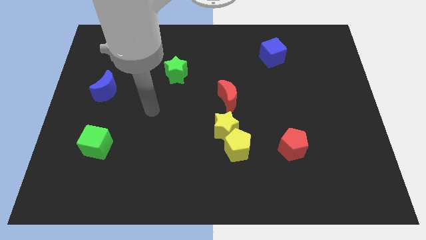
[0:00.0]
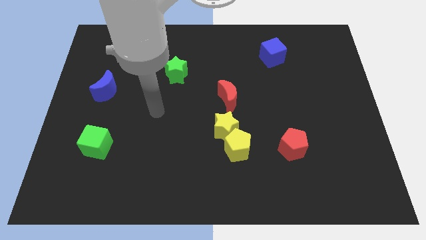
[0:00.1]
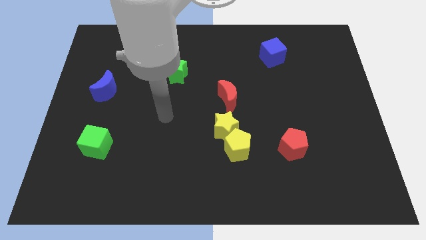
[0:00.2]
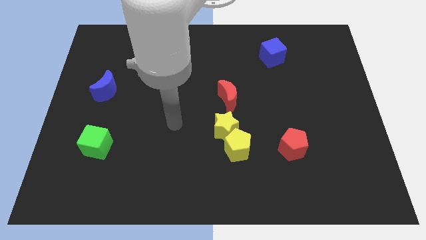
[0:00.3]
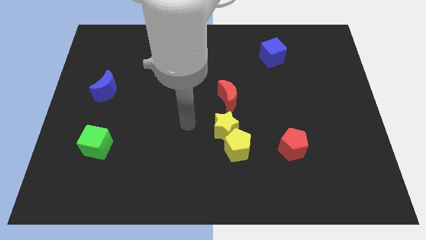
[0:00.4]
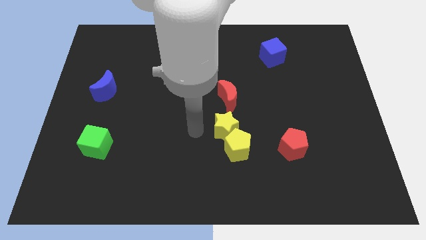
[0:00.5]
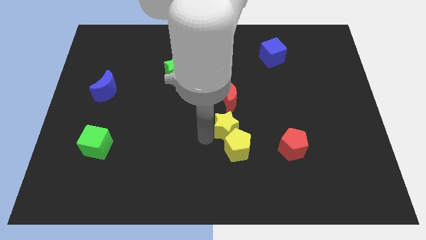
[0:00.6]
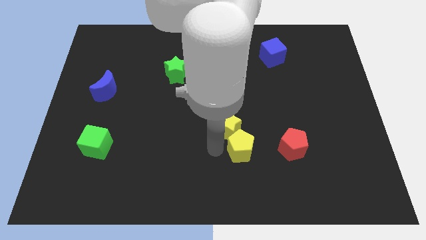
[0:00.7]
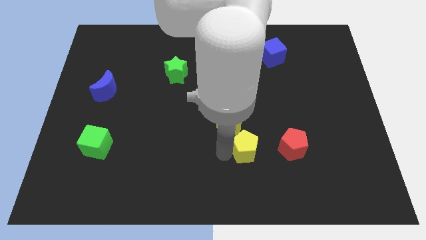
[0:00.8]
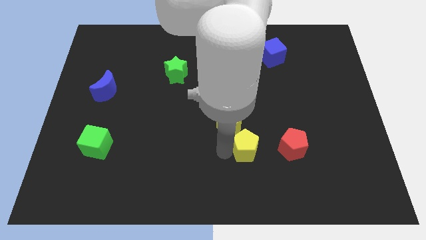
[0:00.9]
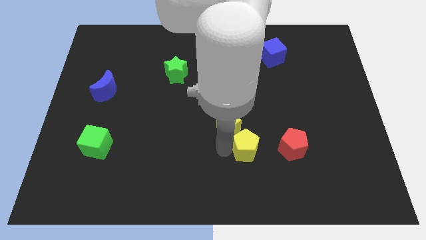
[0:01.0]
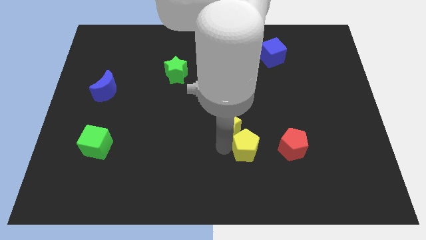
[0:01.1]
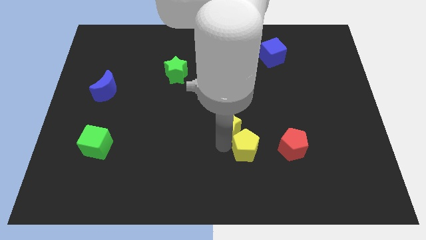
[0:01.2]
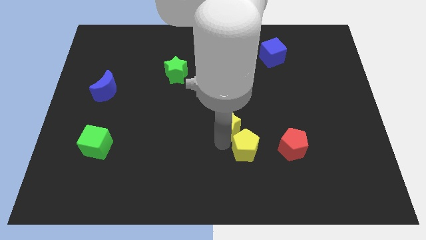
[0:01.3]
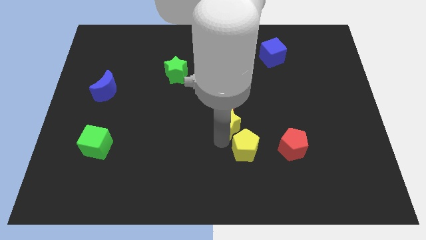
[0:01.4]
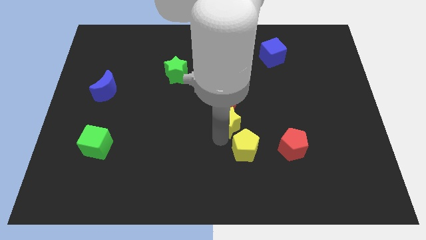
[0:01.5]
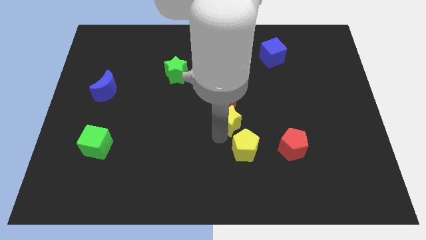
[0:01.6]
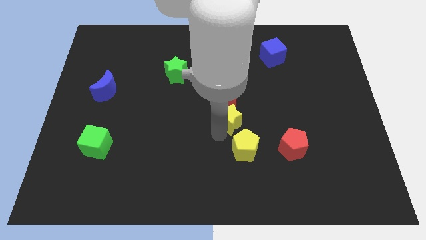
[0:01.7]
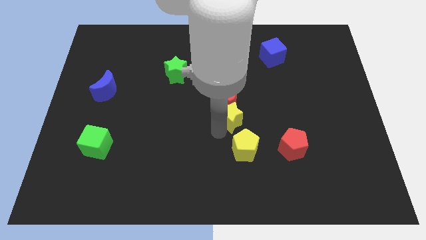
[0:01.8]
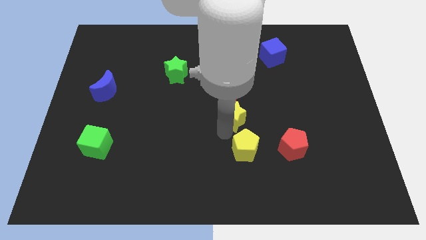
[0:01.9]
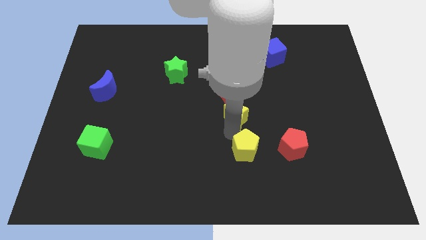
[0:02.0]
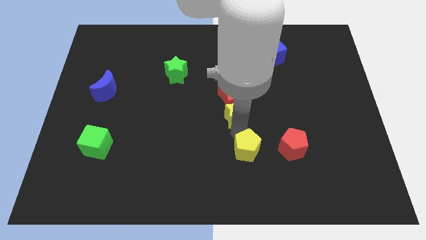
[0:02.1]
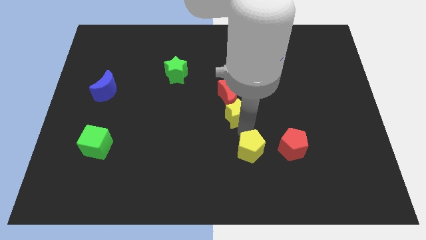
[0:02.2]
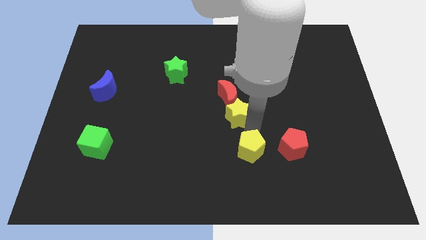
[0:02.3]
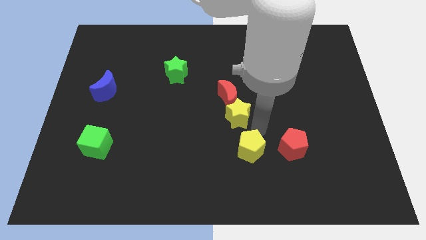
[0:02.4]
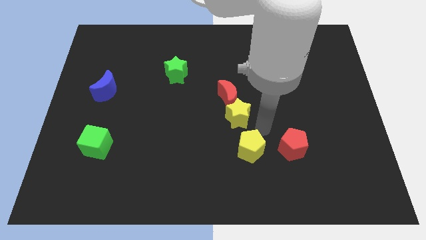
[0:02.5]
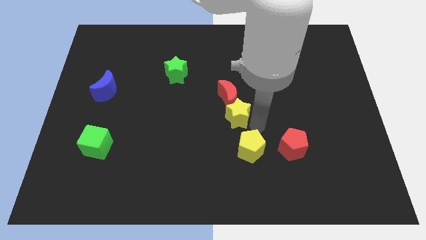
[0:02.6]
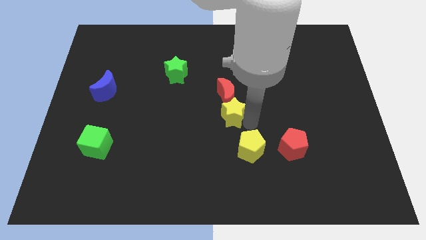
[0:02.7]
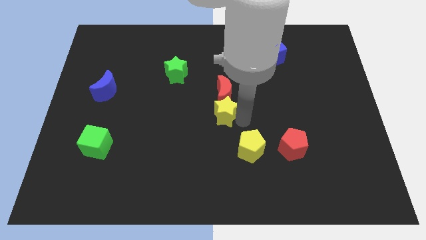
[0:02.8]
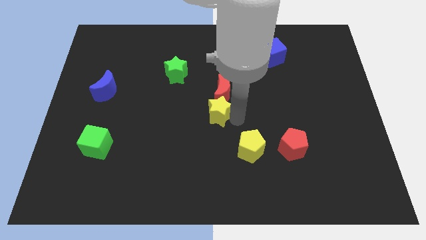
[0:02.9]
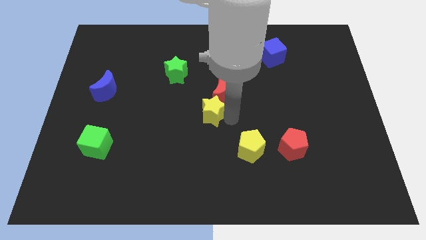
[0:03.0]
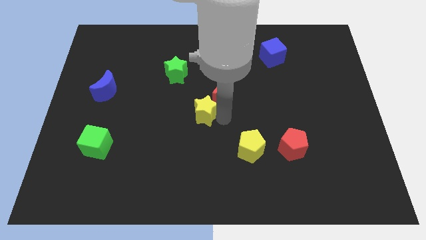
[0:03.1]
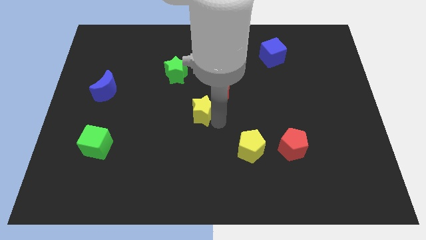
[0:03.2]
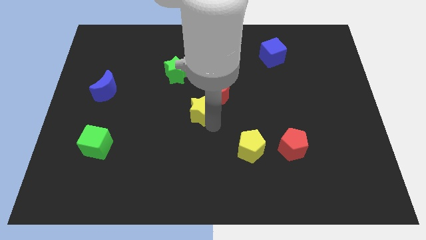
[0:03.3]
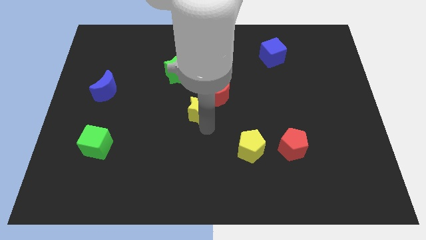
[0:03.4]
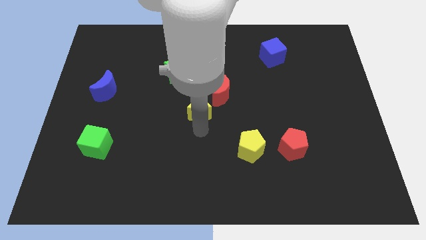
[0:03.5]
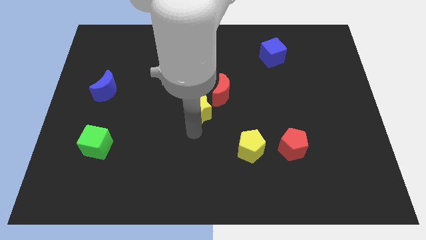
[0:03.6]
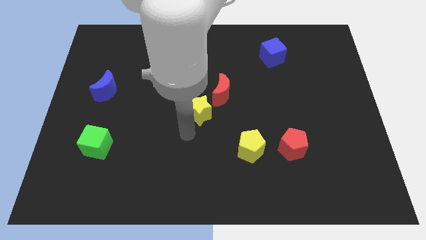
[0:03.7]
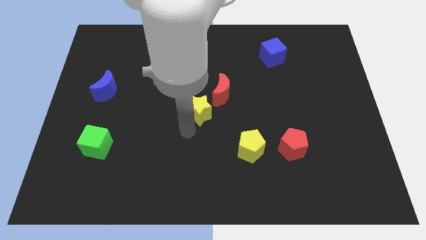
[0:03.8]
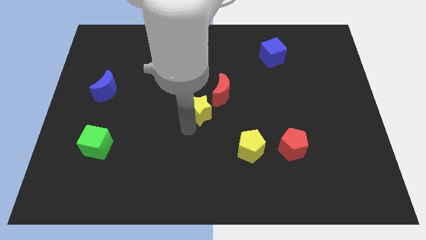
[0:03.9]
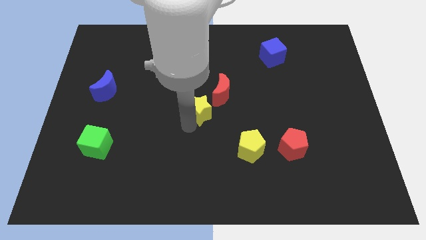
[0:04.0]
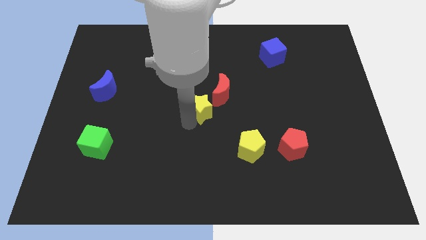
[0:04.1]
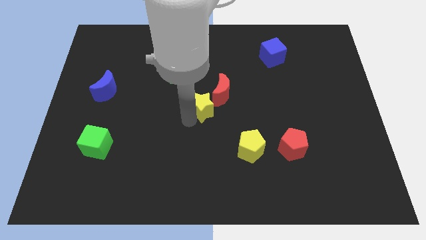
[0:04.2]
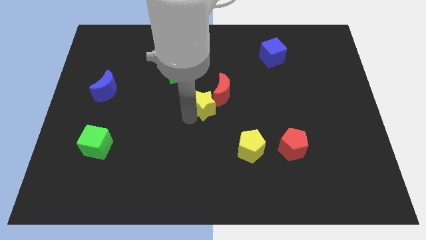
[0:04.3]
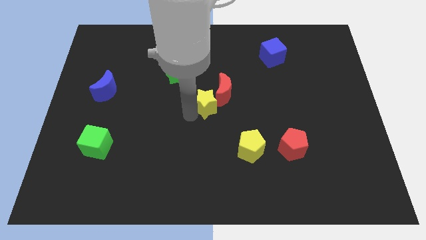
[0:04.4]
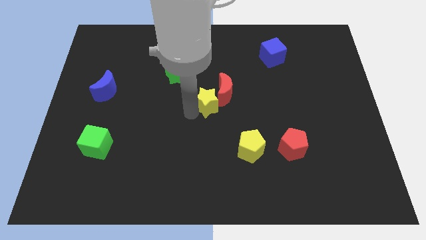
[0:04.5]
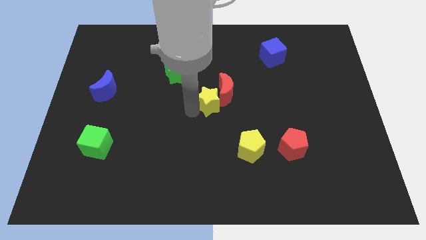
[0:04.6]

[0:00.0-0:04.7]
move the yellow star a bit up

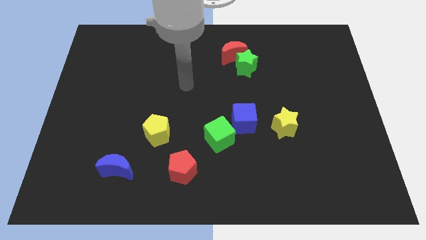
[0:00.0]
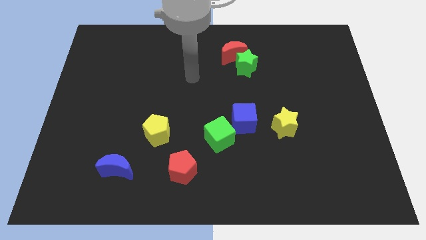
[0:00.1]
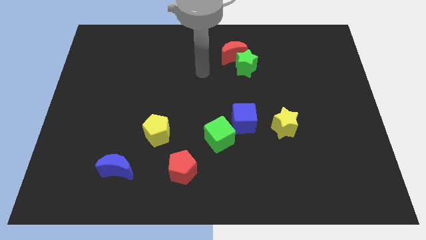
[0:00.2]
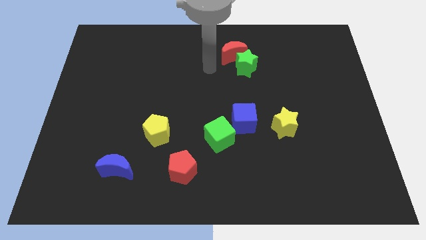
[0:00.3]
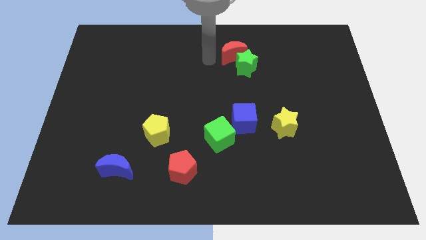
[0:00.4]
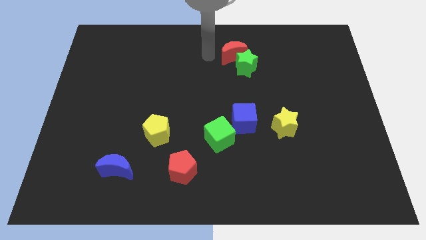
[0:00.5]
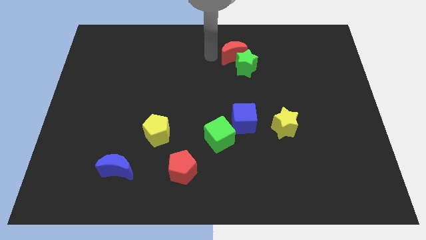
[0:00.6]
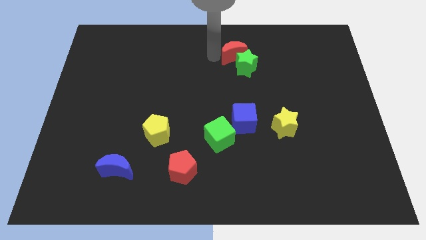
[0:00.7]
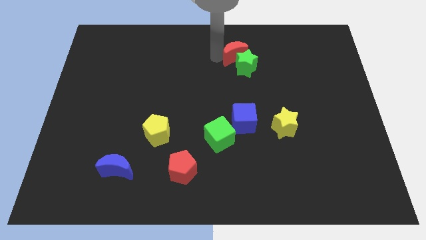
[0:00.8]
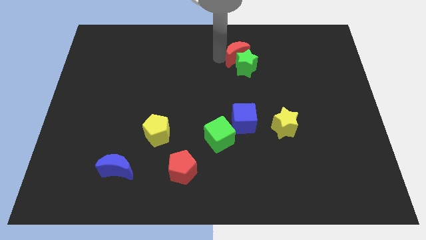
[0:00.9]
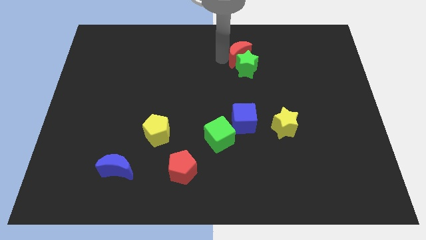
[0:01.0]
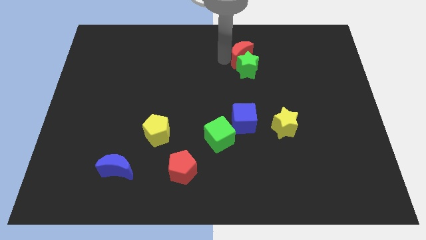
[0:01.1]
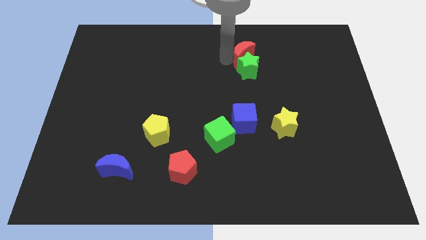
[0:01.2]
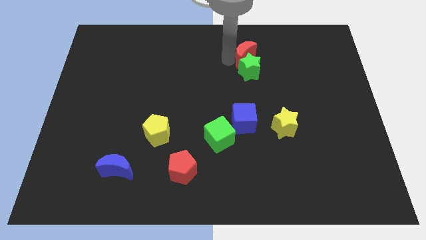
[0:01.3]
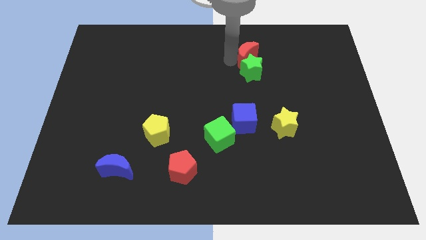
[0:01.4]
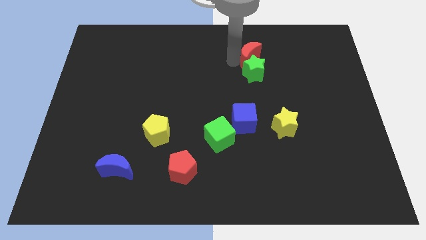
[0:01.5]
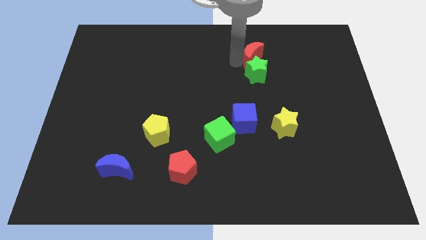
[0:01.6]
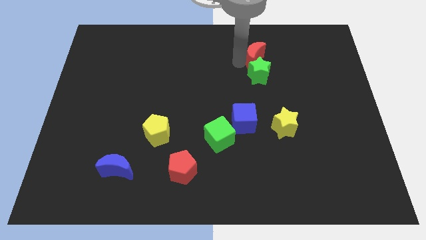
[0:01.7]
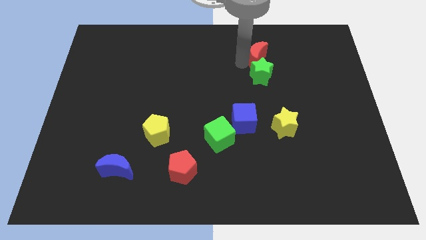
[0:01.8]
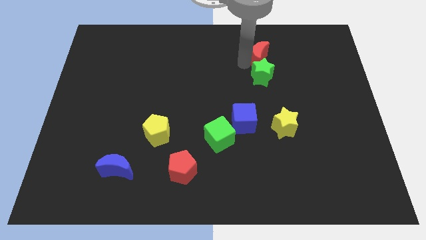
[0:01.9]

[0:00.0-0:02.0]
push the red moon slightly right

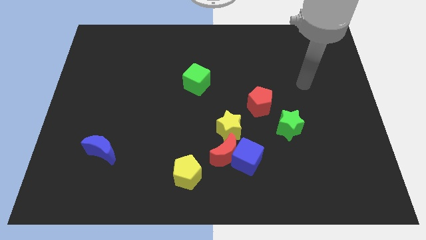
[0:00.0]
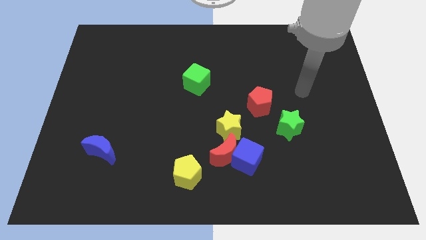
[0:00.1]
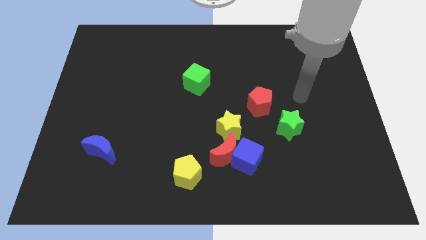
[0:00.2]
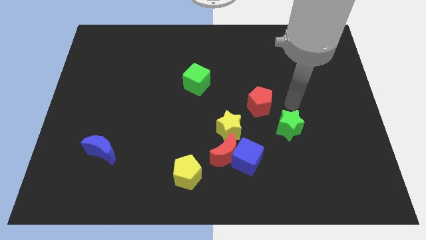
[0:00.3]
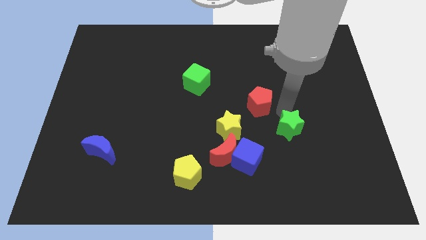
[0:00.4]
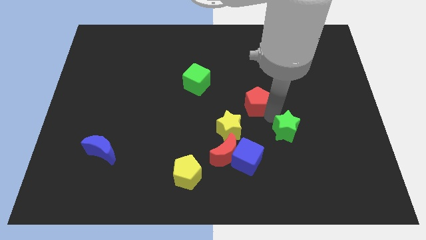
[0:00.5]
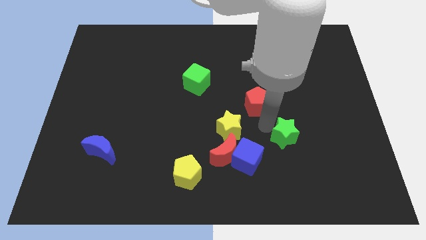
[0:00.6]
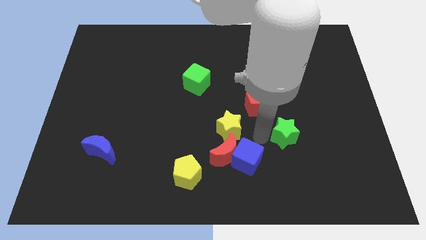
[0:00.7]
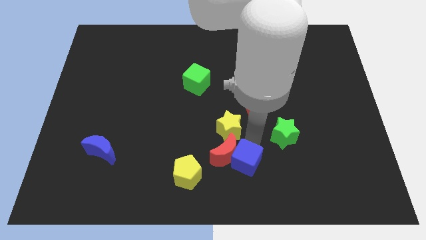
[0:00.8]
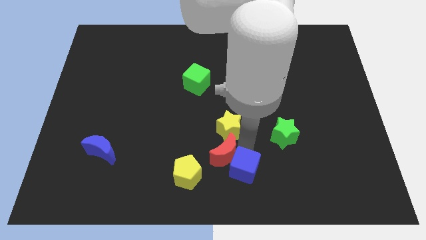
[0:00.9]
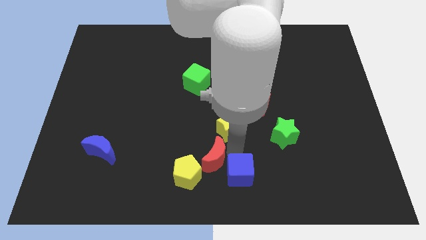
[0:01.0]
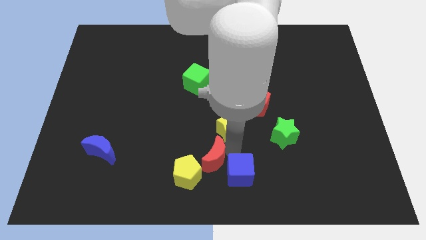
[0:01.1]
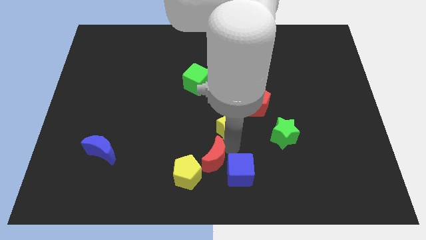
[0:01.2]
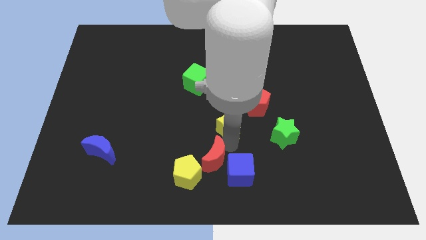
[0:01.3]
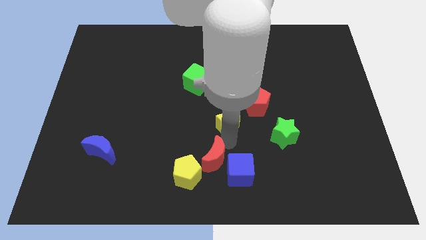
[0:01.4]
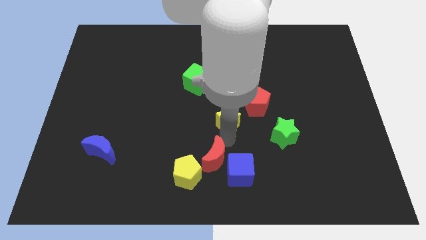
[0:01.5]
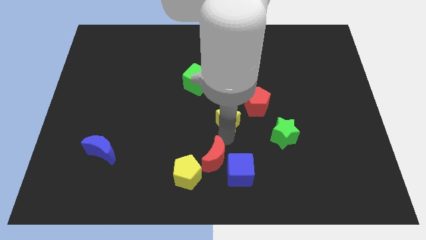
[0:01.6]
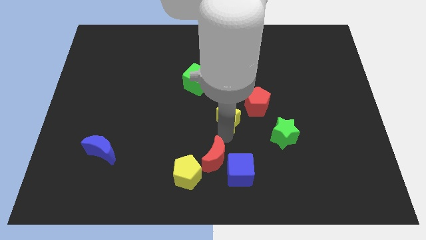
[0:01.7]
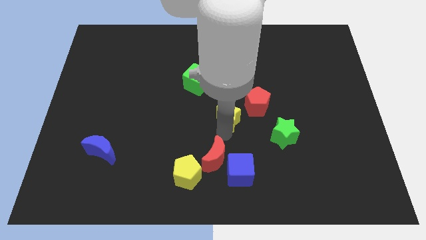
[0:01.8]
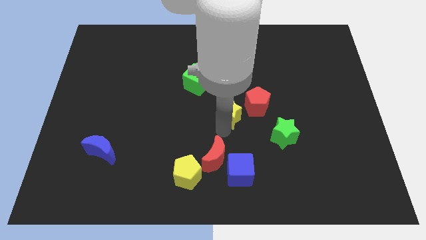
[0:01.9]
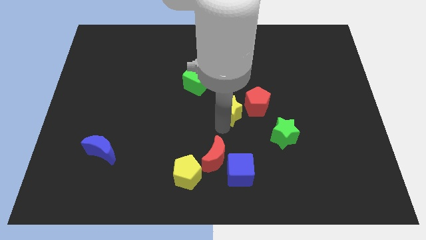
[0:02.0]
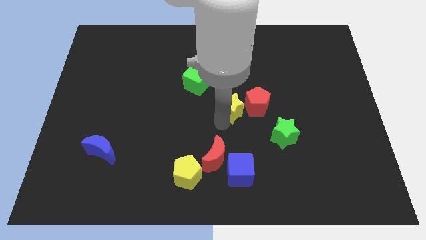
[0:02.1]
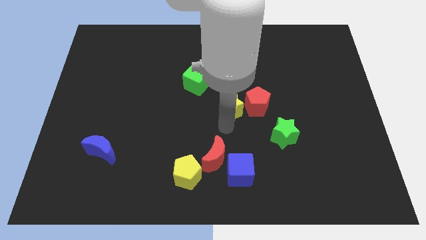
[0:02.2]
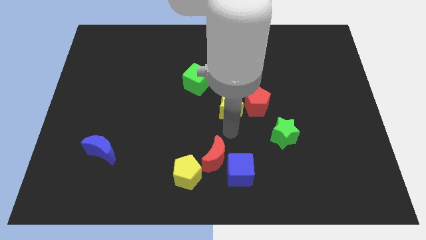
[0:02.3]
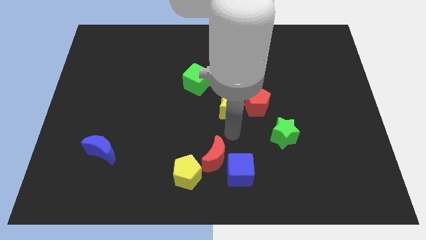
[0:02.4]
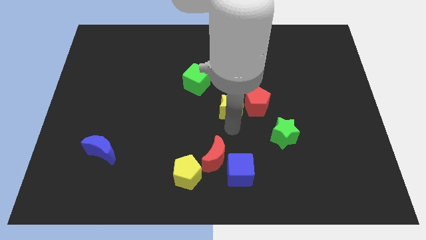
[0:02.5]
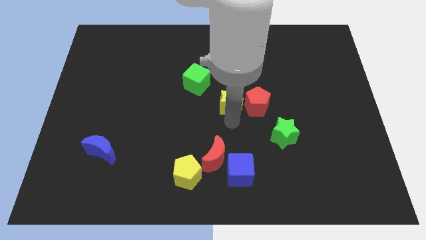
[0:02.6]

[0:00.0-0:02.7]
push the yellow star up slightly
